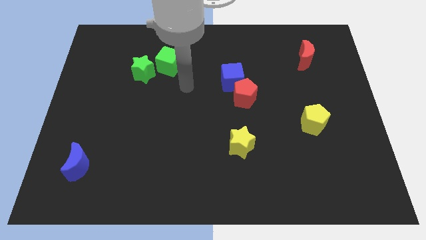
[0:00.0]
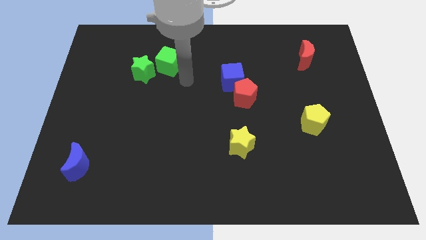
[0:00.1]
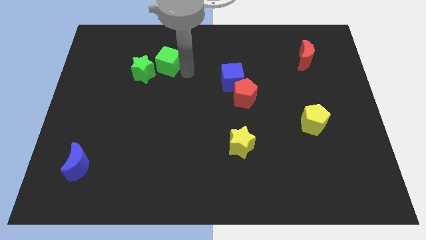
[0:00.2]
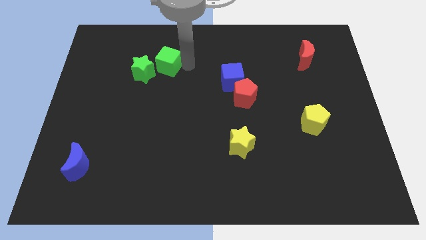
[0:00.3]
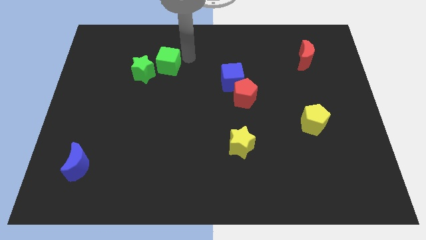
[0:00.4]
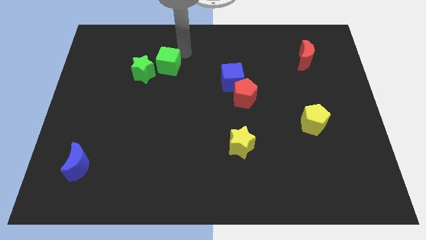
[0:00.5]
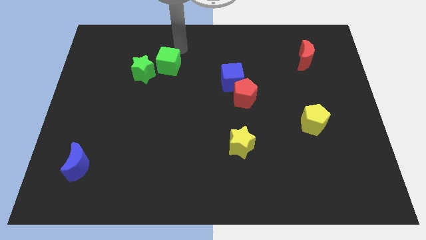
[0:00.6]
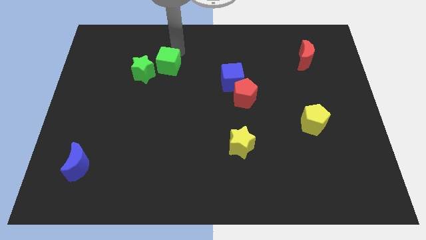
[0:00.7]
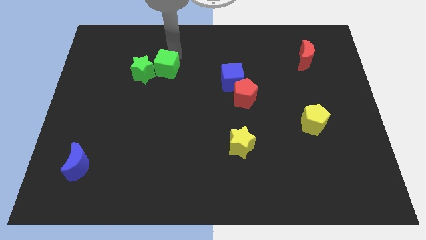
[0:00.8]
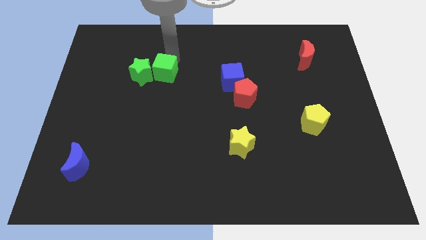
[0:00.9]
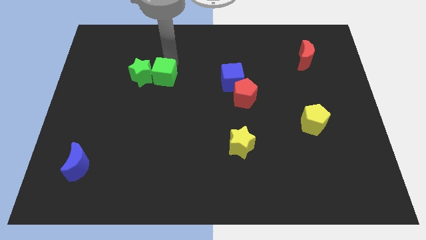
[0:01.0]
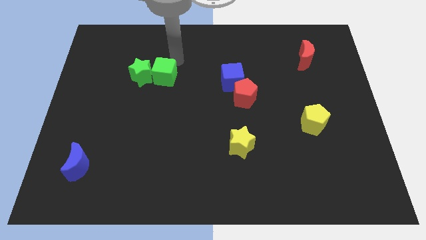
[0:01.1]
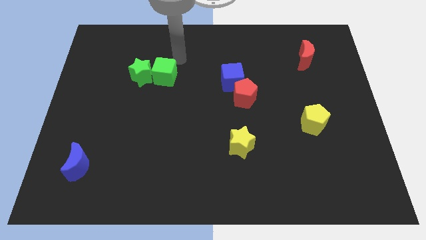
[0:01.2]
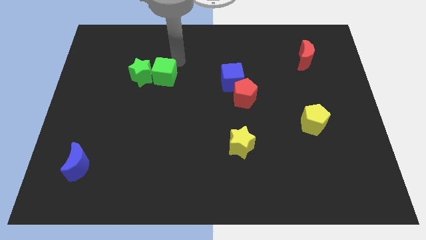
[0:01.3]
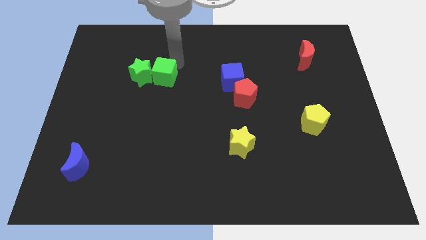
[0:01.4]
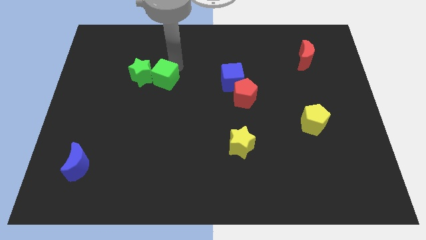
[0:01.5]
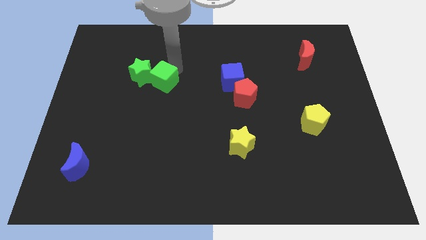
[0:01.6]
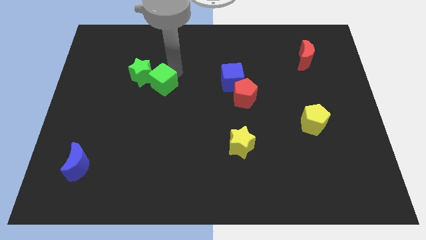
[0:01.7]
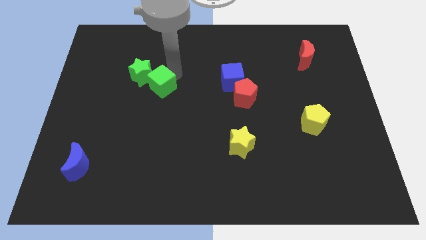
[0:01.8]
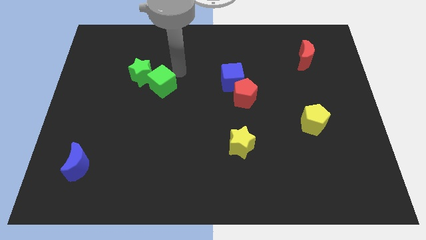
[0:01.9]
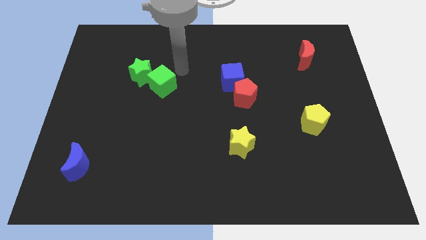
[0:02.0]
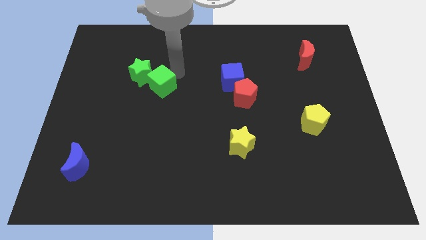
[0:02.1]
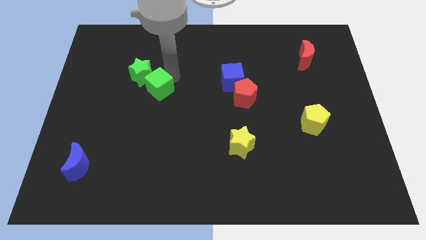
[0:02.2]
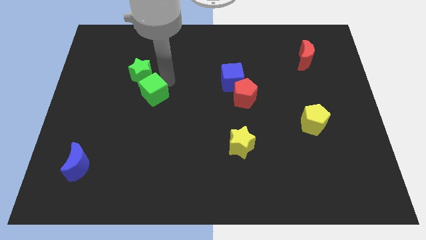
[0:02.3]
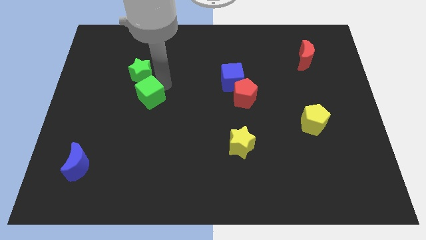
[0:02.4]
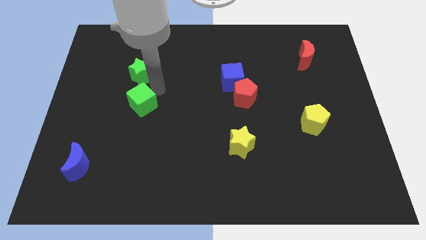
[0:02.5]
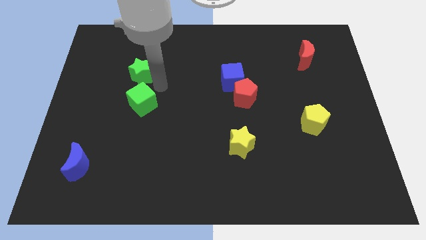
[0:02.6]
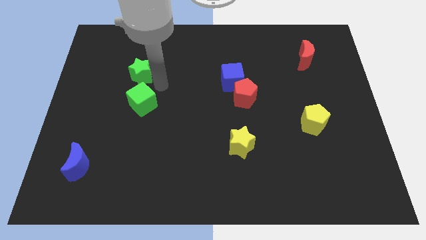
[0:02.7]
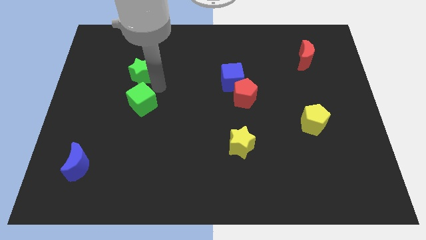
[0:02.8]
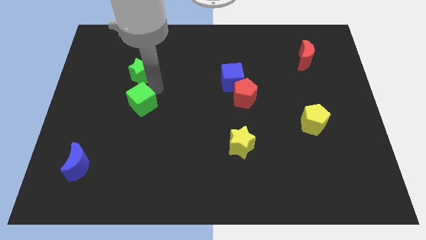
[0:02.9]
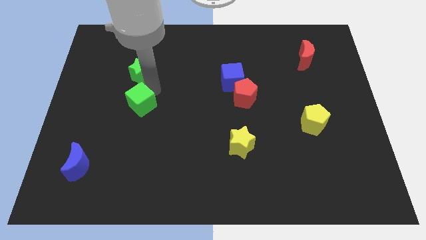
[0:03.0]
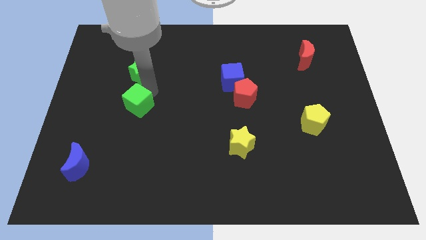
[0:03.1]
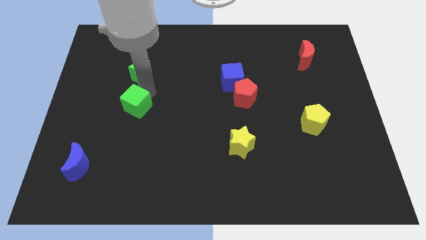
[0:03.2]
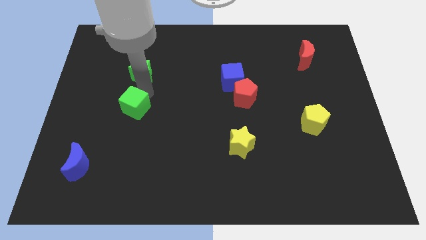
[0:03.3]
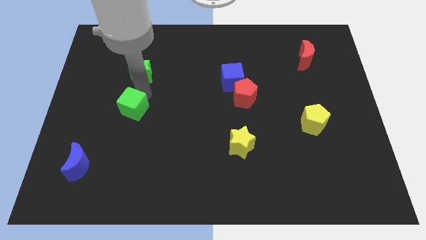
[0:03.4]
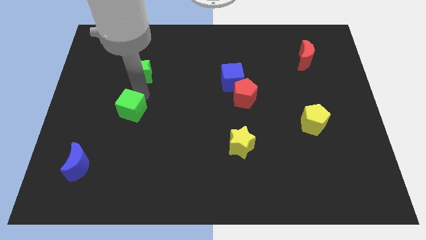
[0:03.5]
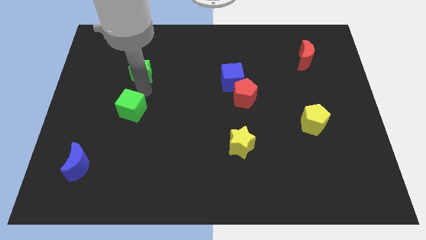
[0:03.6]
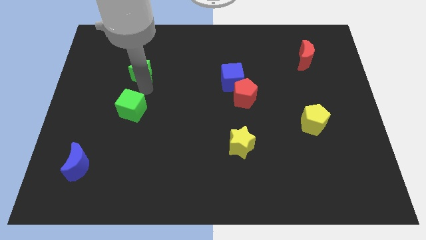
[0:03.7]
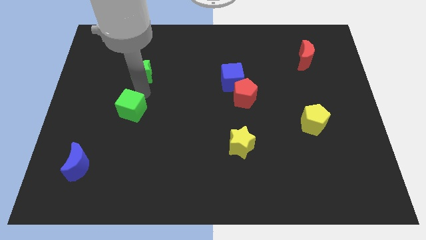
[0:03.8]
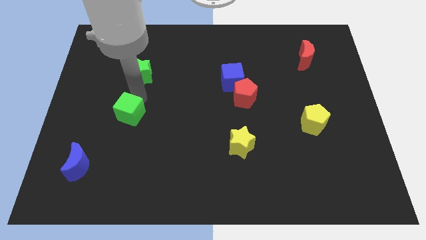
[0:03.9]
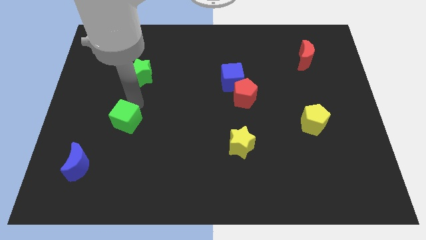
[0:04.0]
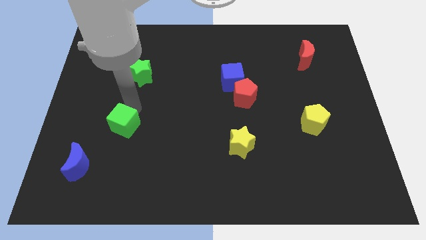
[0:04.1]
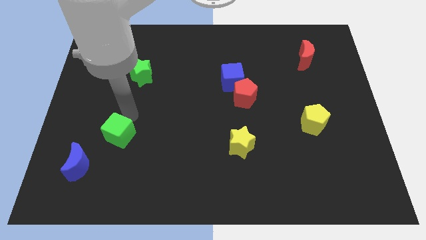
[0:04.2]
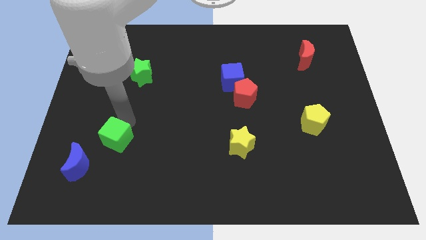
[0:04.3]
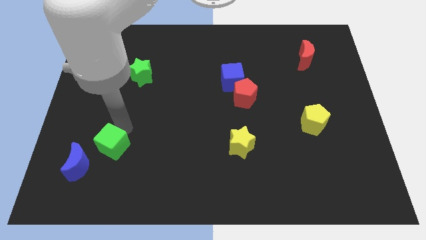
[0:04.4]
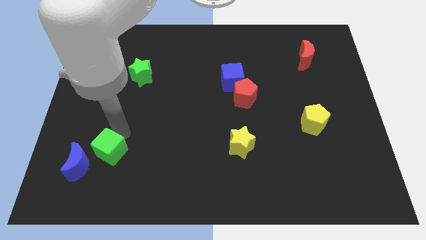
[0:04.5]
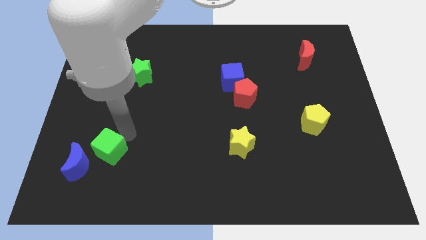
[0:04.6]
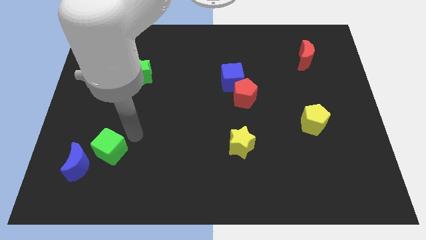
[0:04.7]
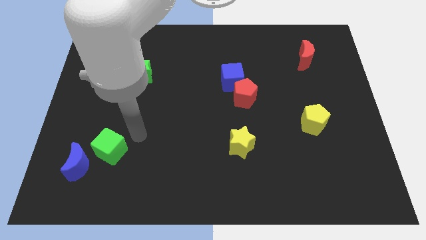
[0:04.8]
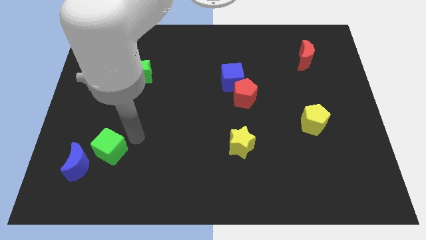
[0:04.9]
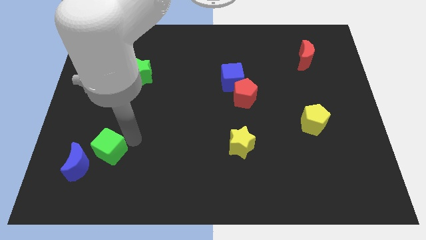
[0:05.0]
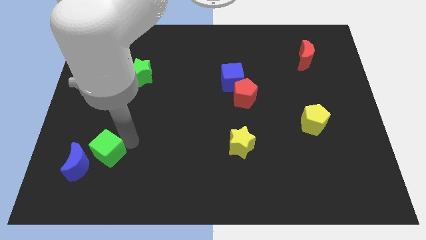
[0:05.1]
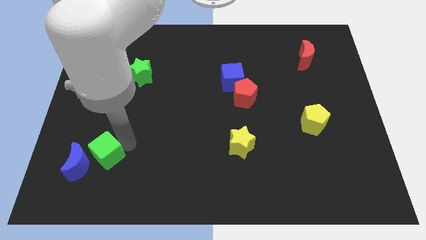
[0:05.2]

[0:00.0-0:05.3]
slide the green cube close to the blue moon

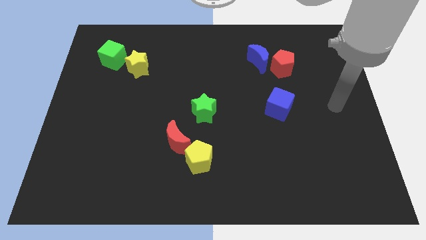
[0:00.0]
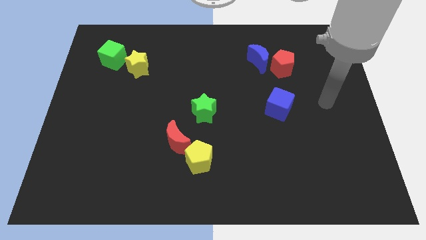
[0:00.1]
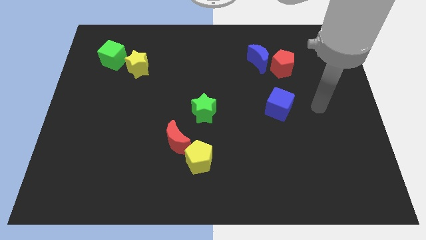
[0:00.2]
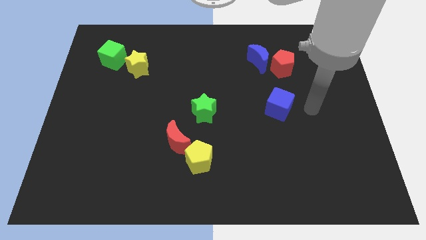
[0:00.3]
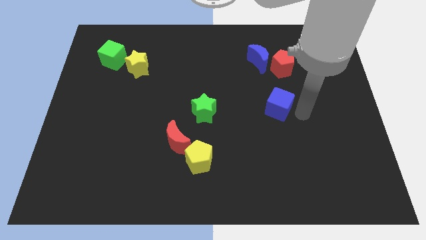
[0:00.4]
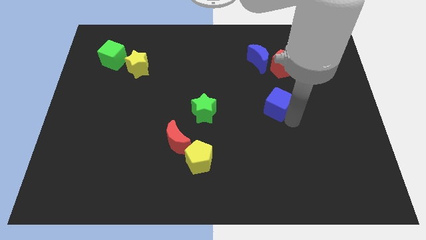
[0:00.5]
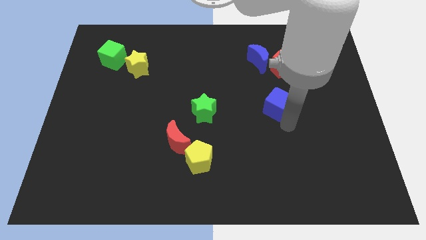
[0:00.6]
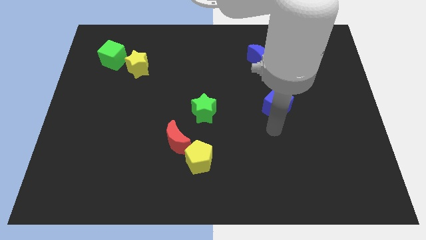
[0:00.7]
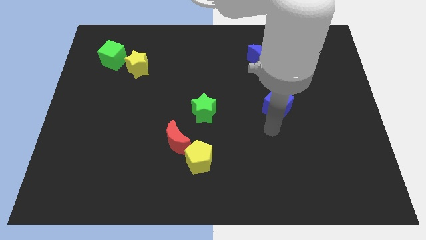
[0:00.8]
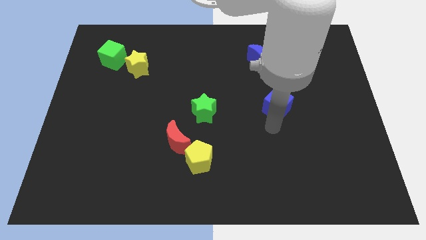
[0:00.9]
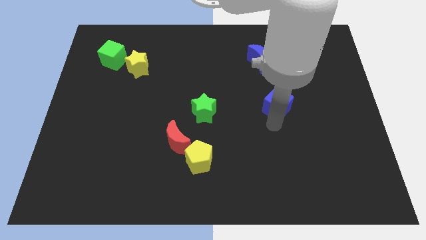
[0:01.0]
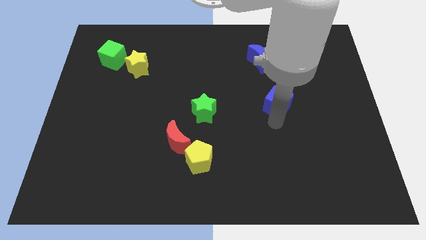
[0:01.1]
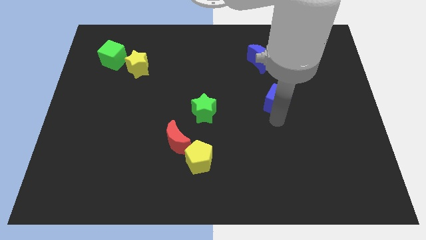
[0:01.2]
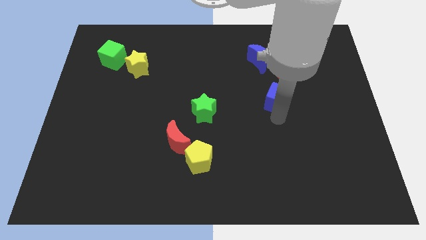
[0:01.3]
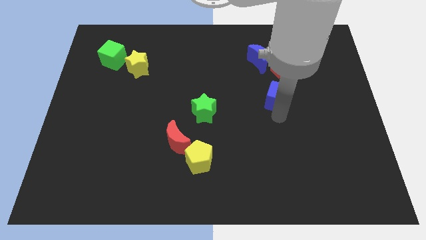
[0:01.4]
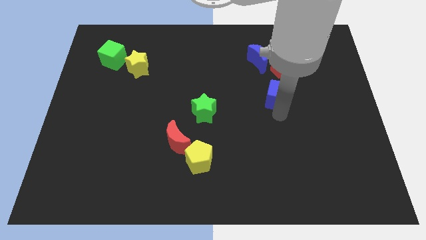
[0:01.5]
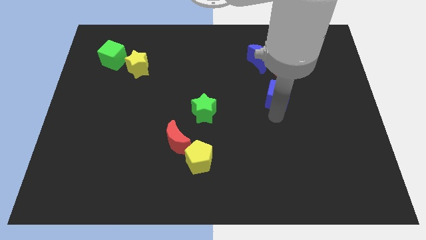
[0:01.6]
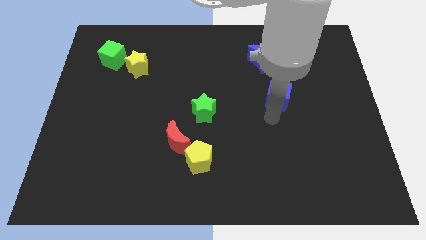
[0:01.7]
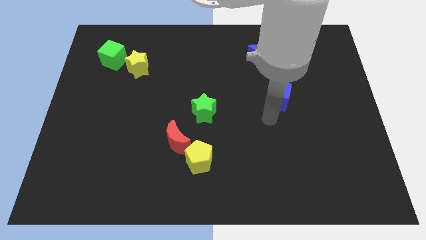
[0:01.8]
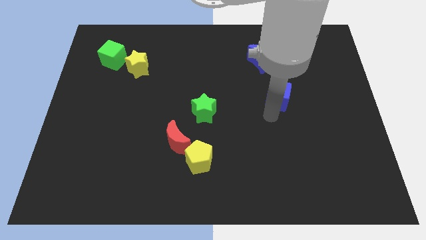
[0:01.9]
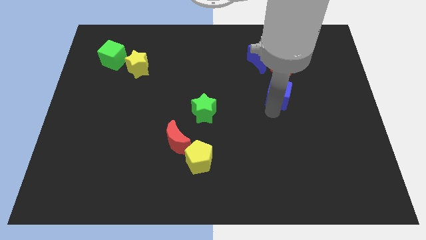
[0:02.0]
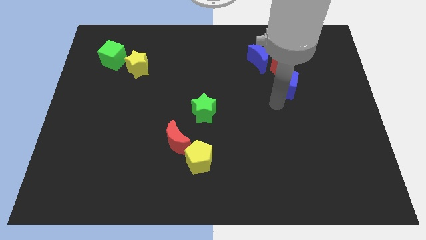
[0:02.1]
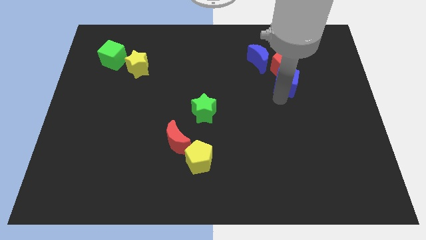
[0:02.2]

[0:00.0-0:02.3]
slide the blue cube to the red pentagon
